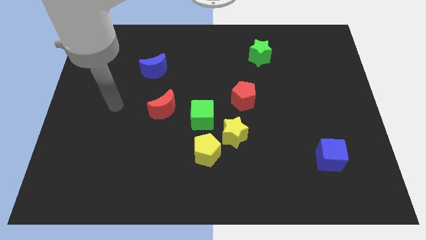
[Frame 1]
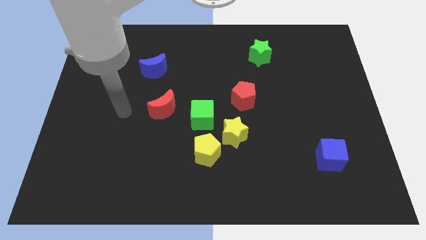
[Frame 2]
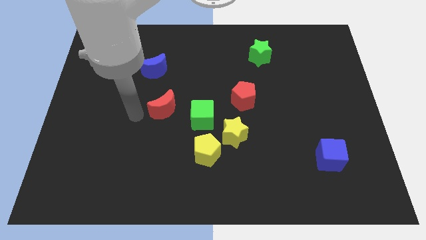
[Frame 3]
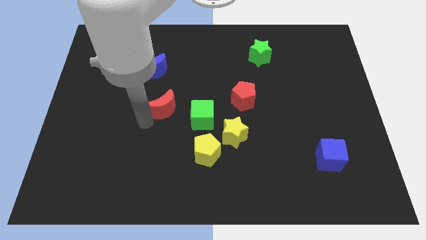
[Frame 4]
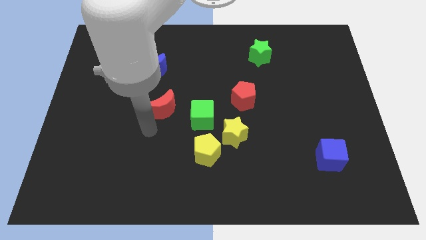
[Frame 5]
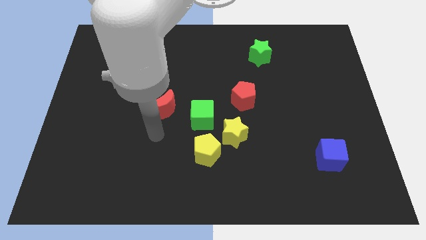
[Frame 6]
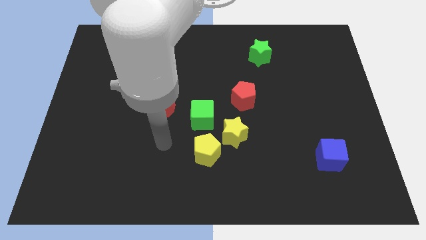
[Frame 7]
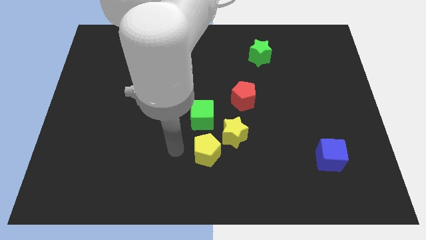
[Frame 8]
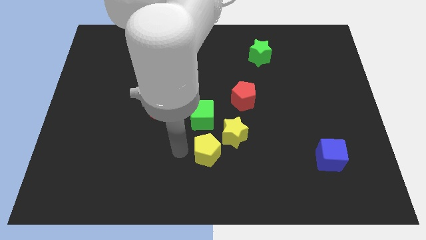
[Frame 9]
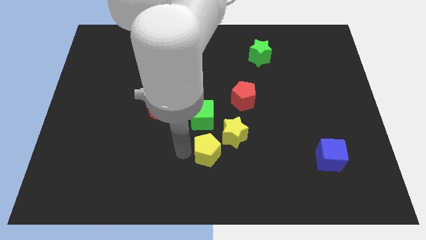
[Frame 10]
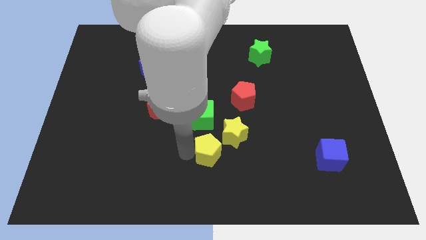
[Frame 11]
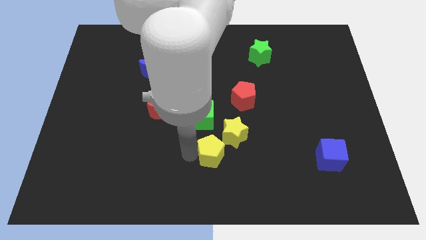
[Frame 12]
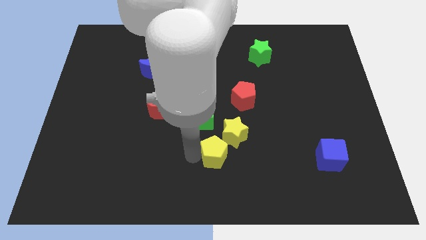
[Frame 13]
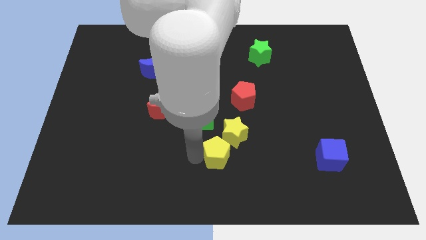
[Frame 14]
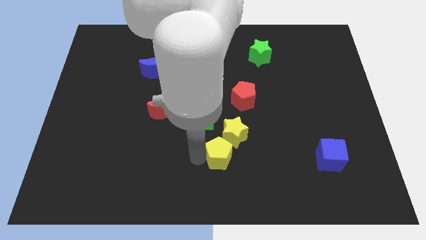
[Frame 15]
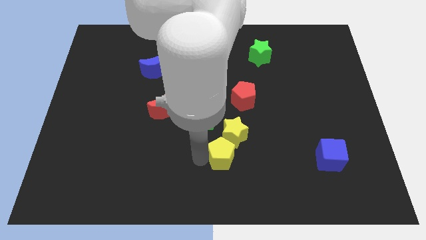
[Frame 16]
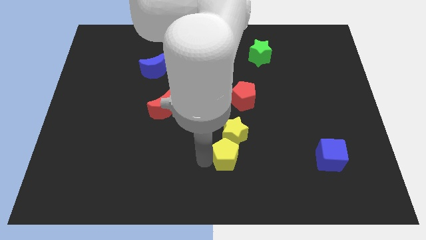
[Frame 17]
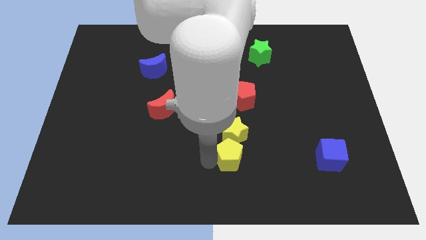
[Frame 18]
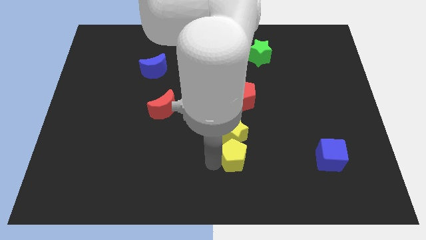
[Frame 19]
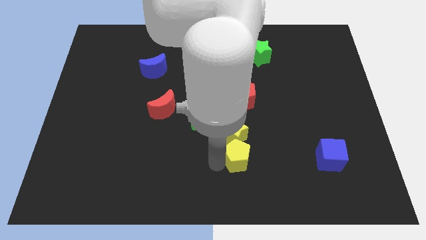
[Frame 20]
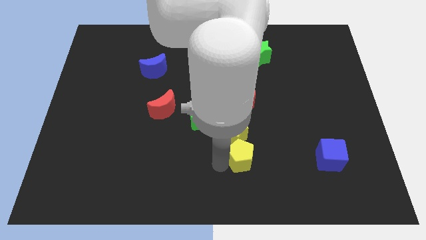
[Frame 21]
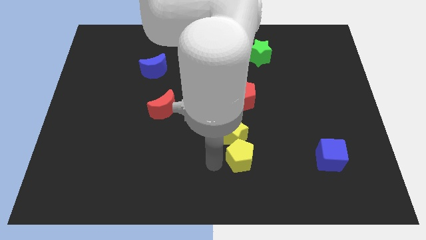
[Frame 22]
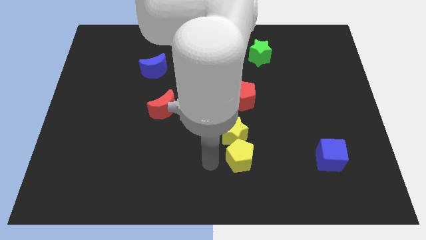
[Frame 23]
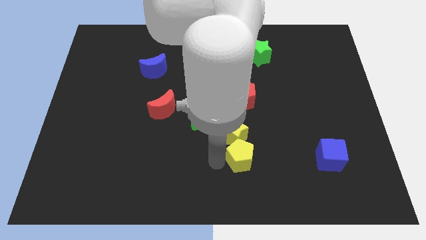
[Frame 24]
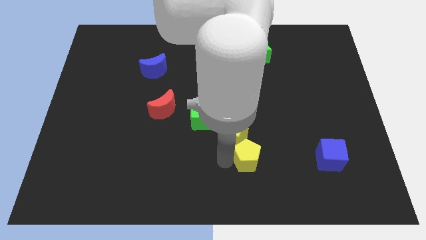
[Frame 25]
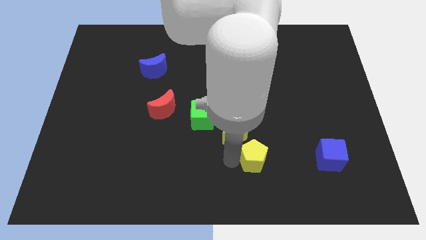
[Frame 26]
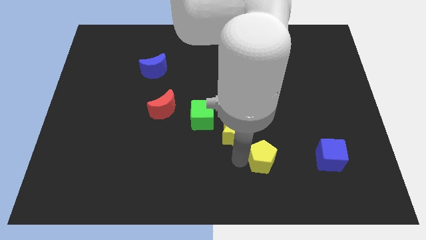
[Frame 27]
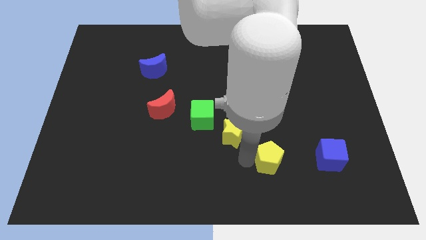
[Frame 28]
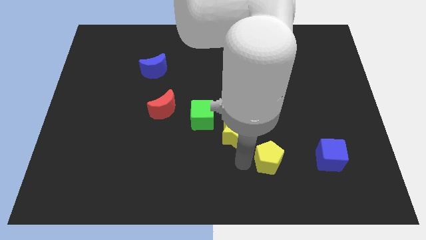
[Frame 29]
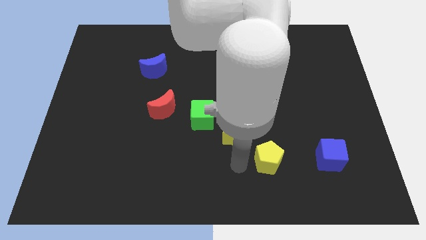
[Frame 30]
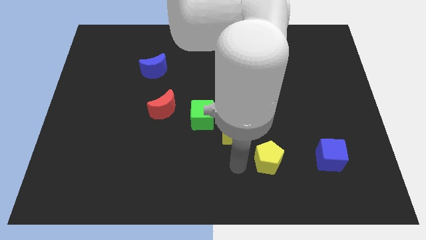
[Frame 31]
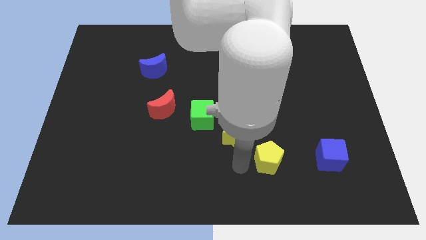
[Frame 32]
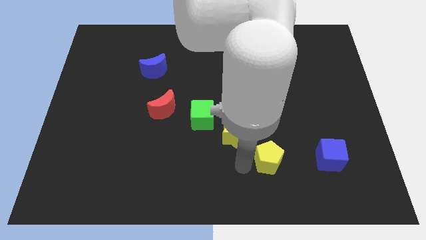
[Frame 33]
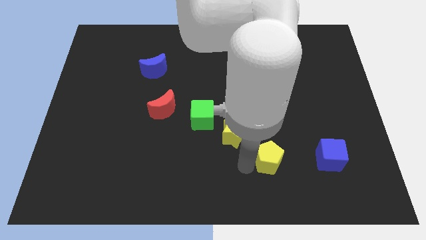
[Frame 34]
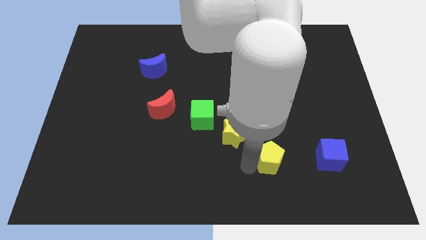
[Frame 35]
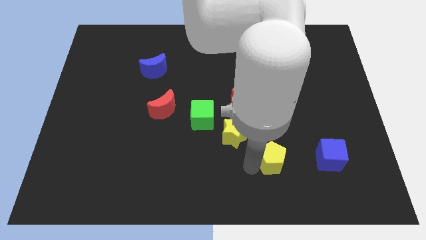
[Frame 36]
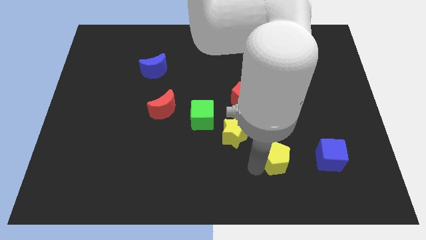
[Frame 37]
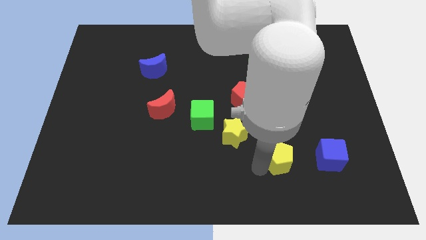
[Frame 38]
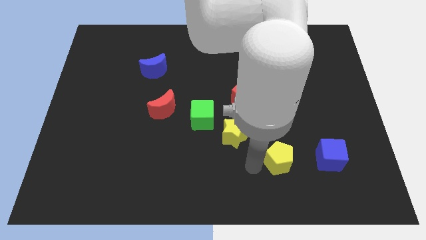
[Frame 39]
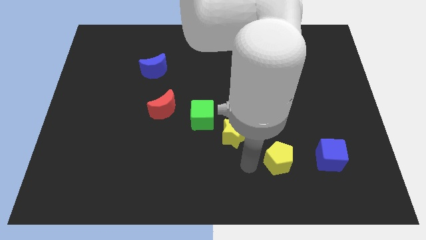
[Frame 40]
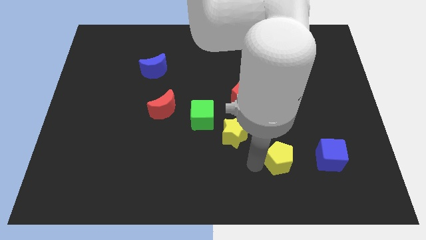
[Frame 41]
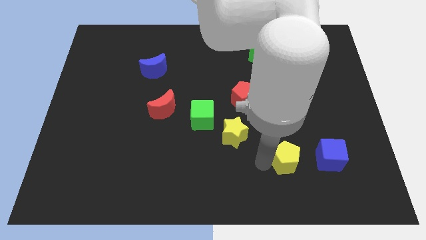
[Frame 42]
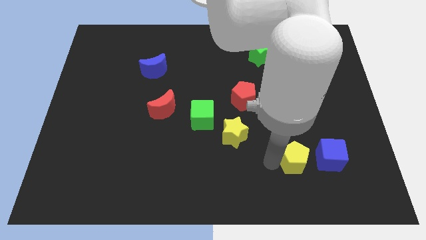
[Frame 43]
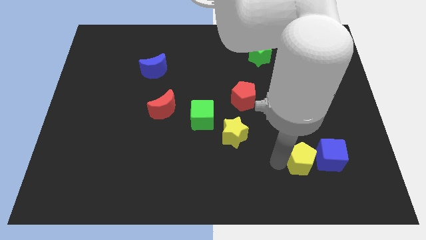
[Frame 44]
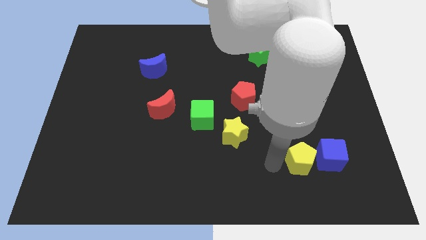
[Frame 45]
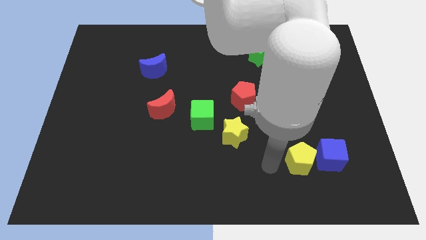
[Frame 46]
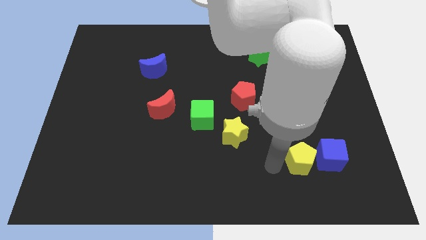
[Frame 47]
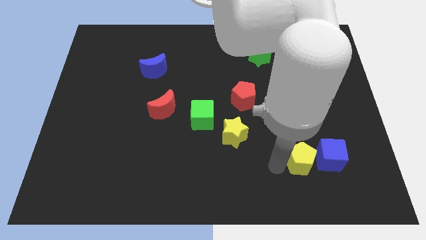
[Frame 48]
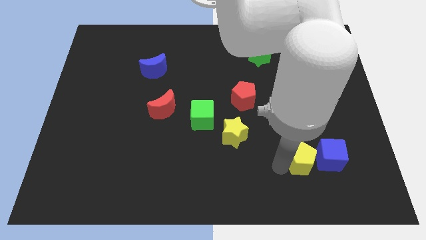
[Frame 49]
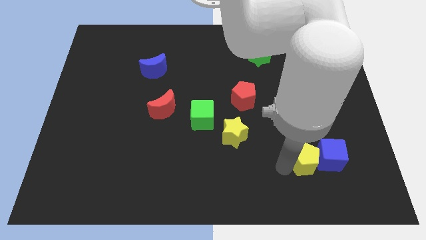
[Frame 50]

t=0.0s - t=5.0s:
put the yellow pentagon close to the blue cube

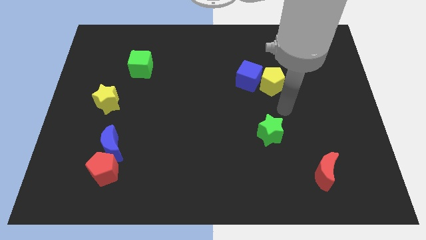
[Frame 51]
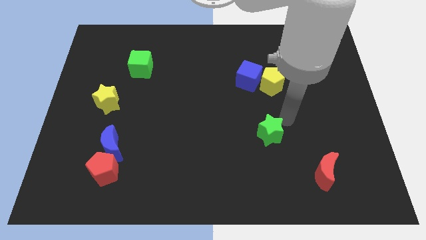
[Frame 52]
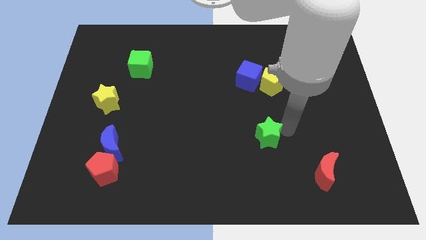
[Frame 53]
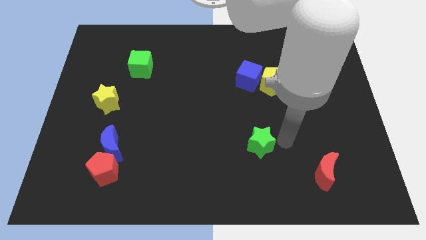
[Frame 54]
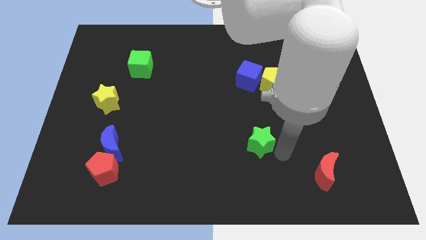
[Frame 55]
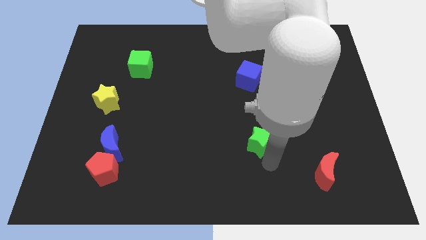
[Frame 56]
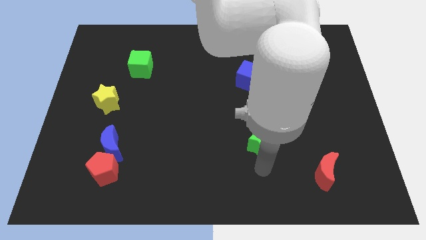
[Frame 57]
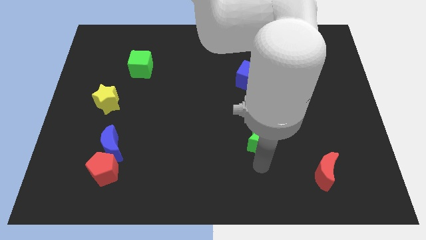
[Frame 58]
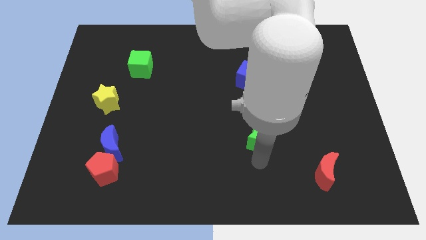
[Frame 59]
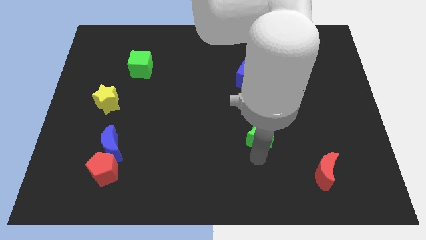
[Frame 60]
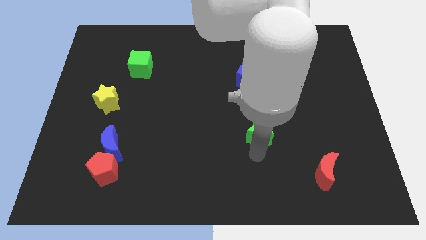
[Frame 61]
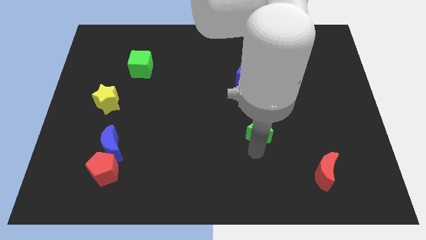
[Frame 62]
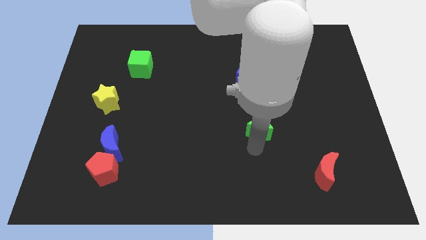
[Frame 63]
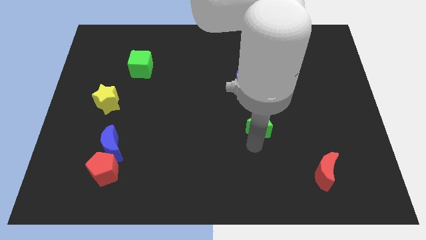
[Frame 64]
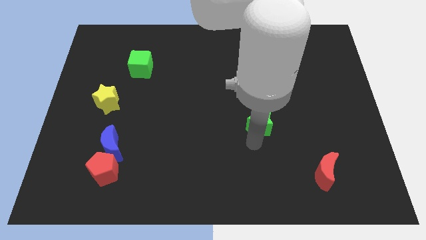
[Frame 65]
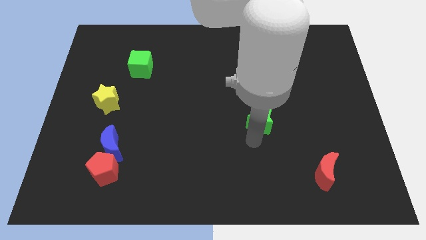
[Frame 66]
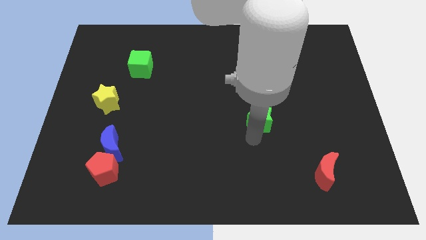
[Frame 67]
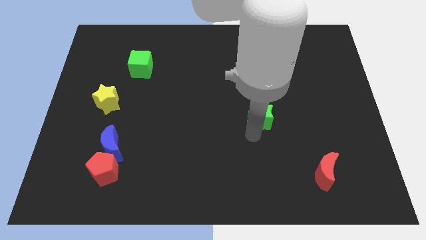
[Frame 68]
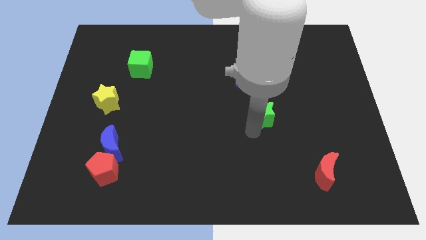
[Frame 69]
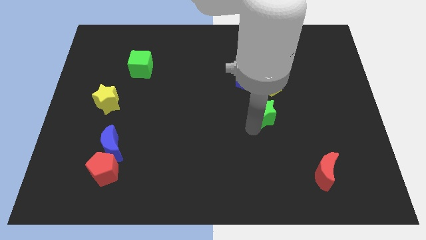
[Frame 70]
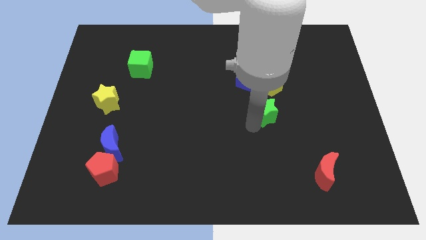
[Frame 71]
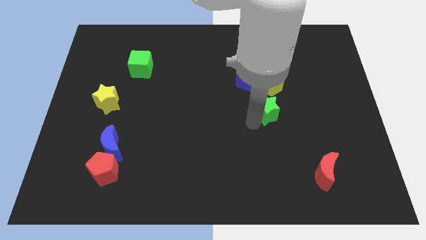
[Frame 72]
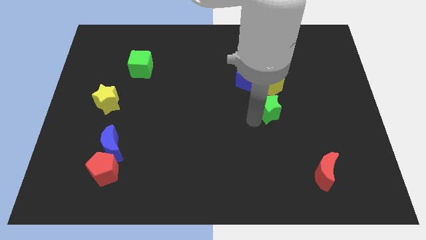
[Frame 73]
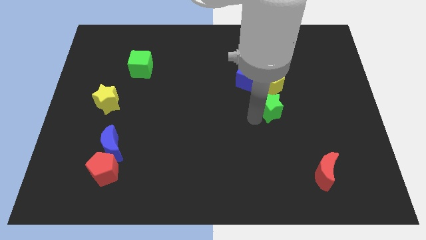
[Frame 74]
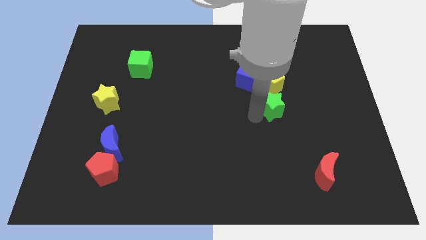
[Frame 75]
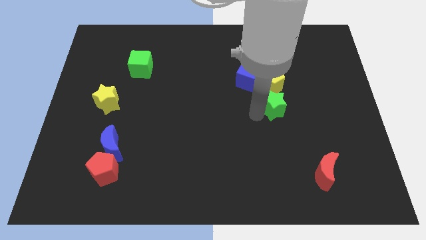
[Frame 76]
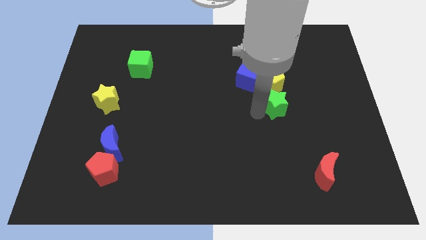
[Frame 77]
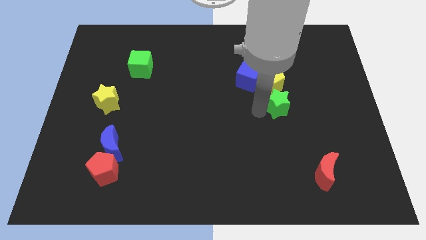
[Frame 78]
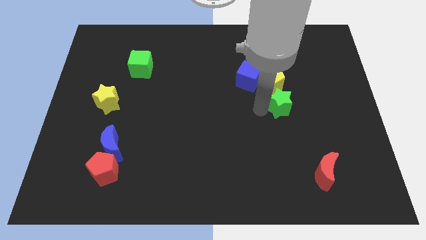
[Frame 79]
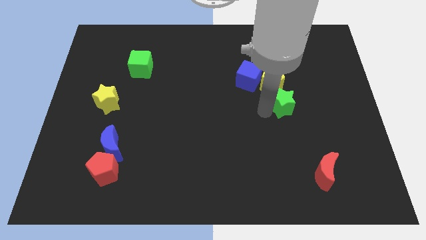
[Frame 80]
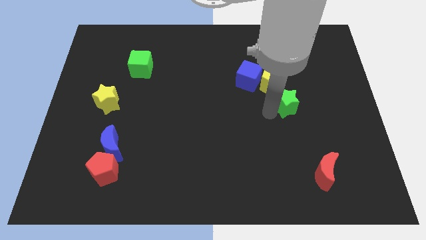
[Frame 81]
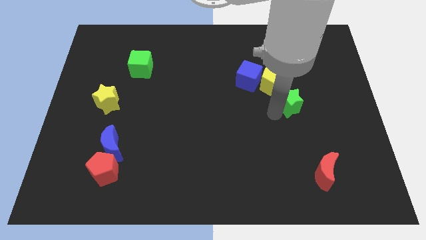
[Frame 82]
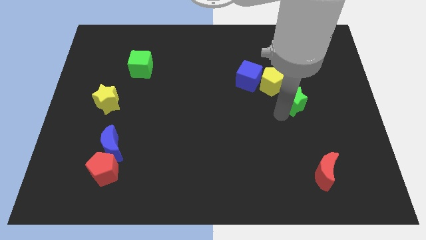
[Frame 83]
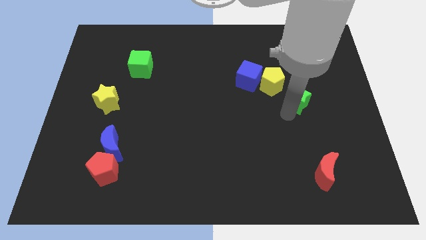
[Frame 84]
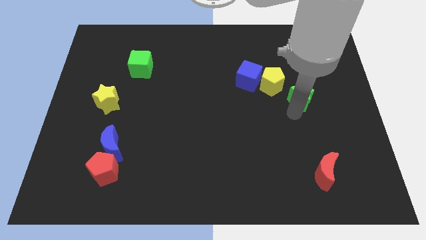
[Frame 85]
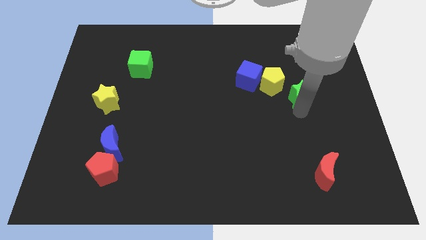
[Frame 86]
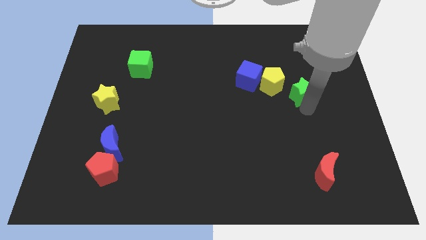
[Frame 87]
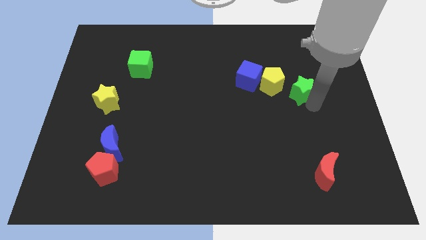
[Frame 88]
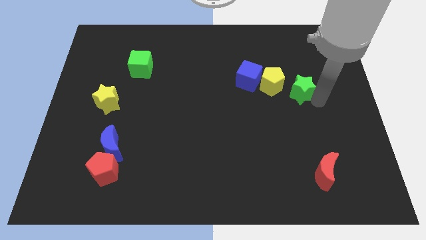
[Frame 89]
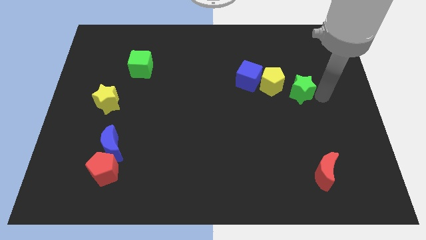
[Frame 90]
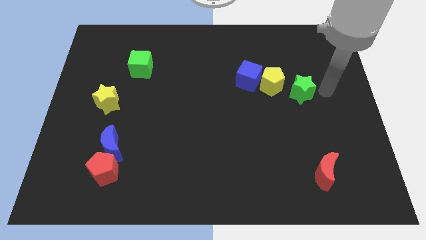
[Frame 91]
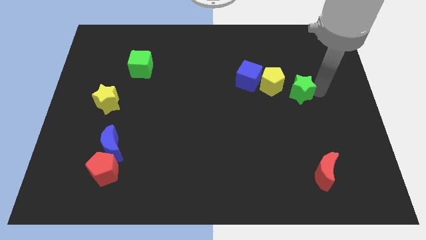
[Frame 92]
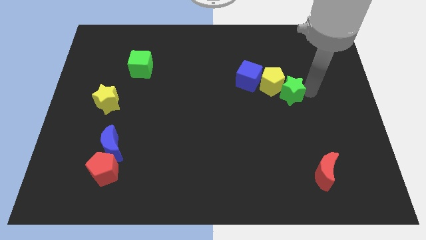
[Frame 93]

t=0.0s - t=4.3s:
put the green star towards the yellow pentagon
